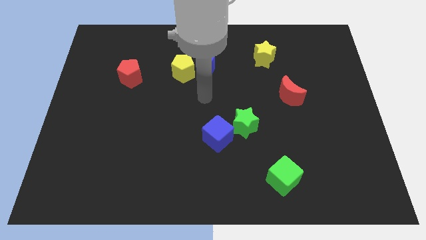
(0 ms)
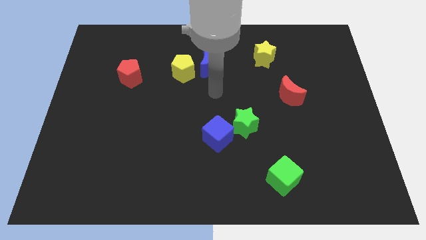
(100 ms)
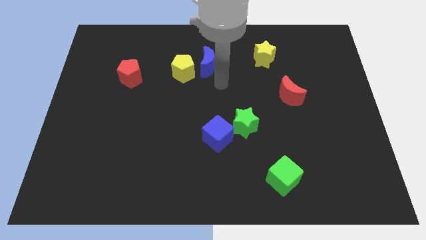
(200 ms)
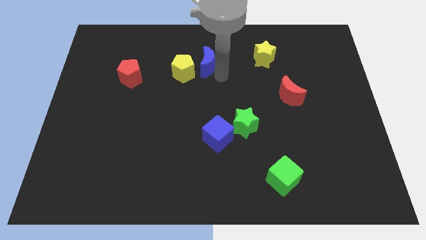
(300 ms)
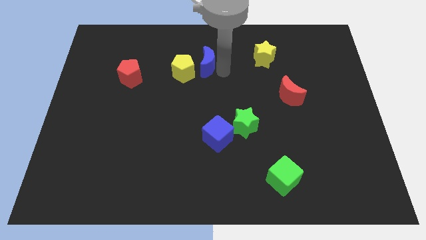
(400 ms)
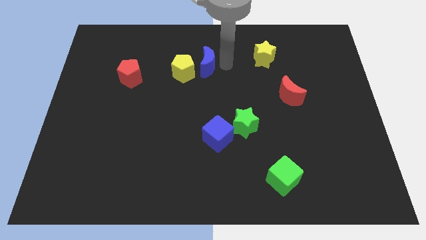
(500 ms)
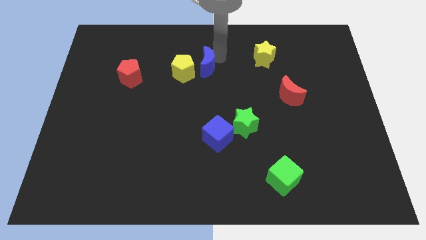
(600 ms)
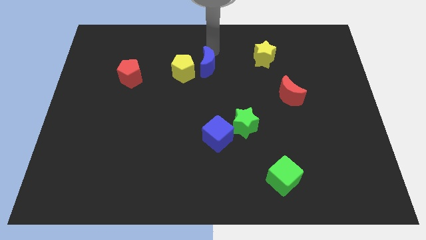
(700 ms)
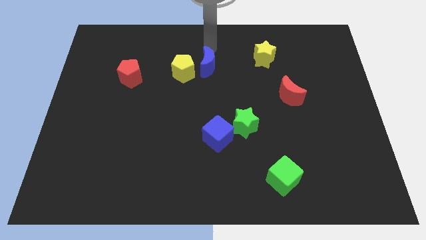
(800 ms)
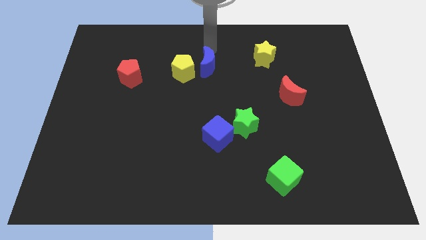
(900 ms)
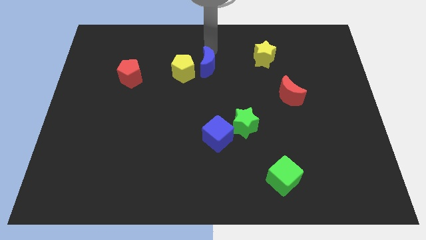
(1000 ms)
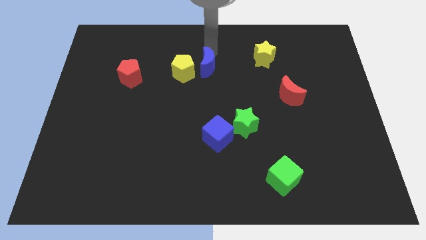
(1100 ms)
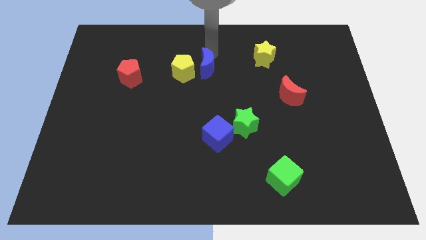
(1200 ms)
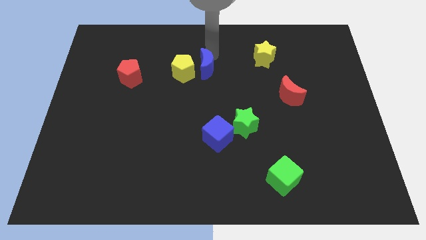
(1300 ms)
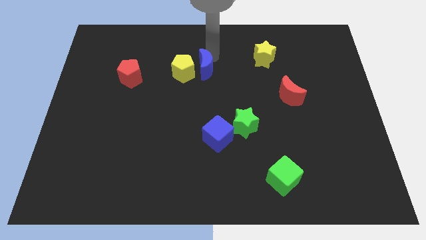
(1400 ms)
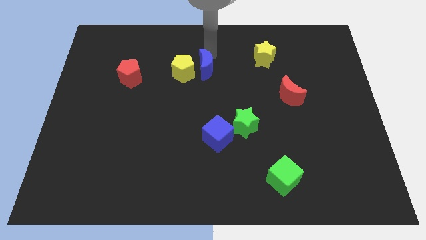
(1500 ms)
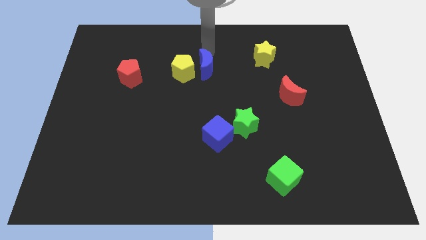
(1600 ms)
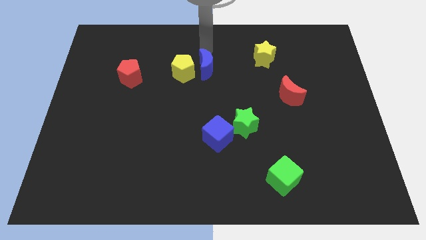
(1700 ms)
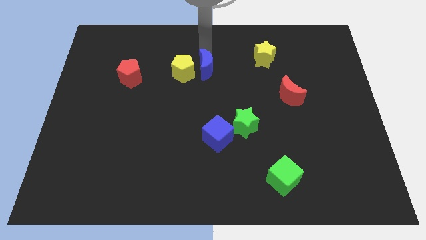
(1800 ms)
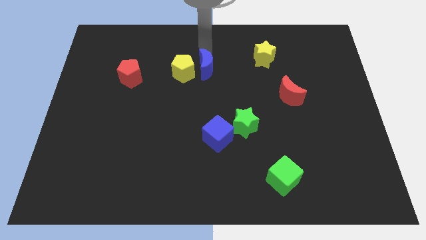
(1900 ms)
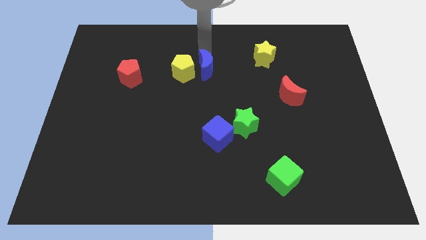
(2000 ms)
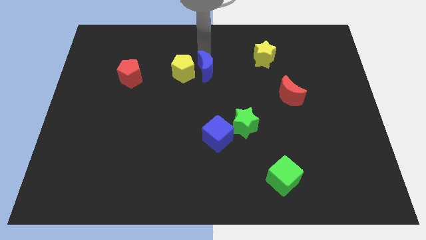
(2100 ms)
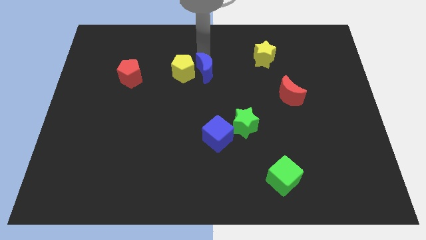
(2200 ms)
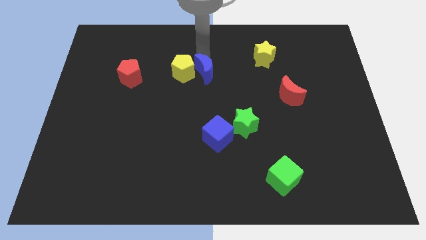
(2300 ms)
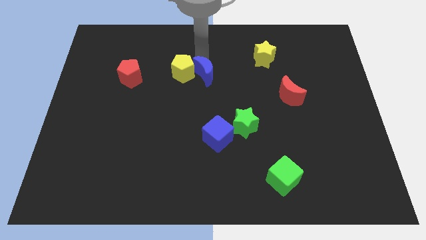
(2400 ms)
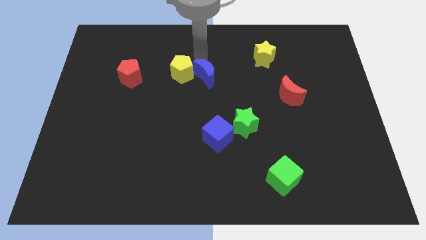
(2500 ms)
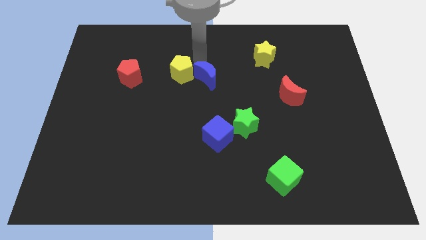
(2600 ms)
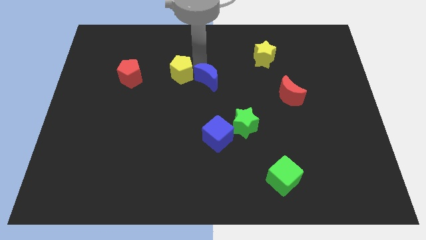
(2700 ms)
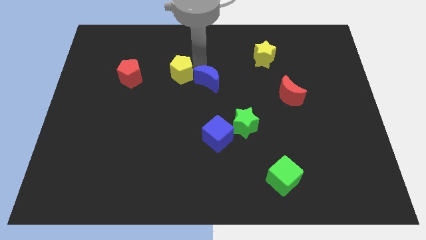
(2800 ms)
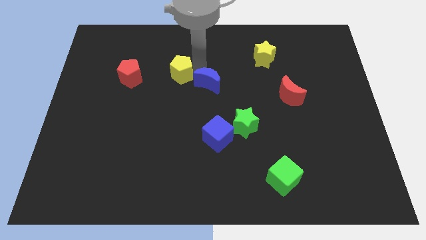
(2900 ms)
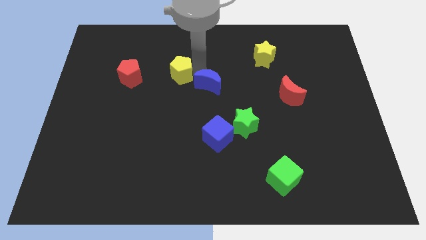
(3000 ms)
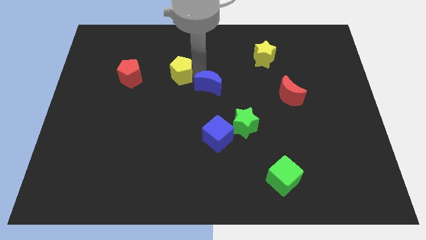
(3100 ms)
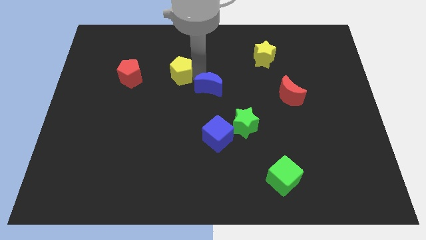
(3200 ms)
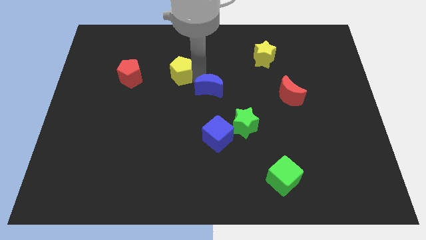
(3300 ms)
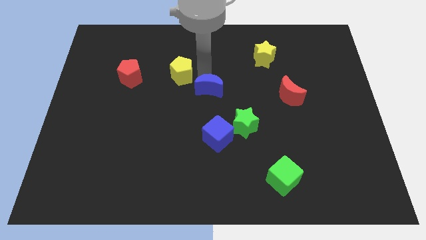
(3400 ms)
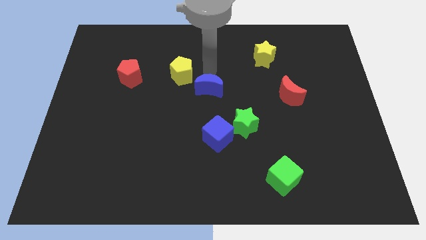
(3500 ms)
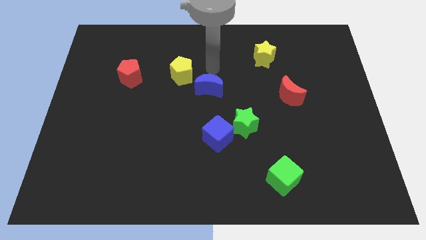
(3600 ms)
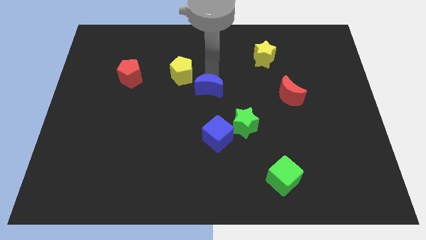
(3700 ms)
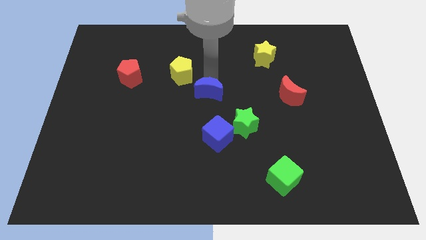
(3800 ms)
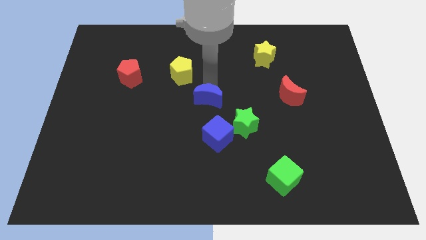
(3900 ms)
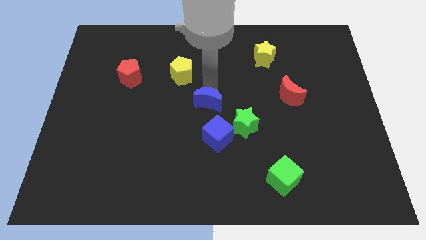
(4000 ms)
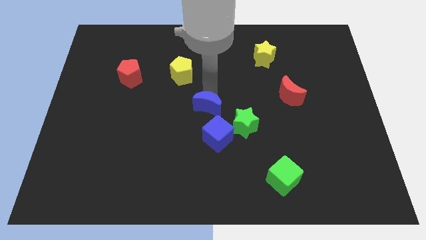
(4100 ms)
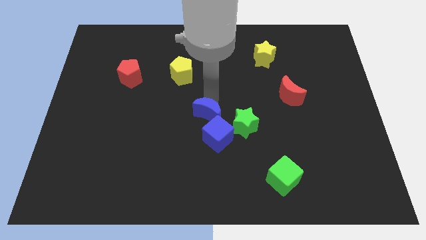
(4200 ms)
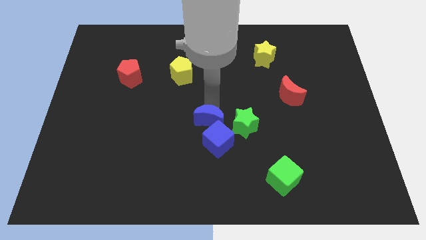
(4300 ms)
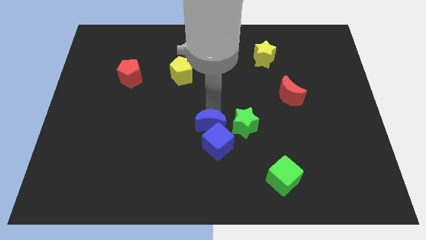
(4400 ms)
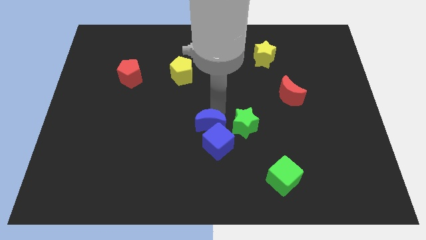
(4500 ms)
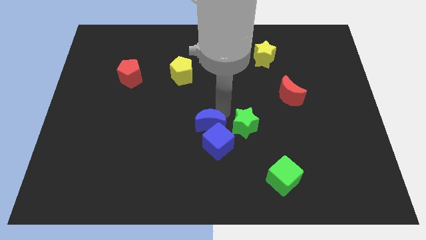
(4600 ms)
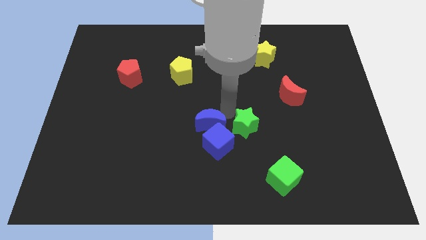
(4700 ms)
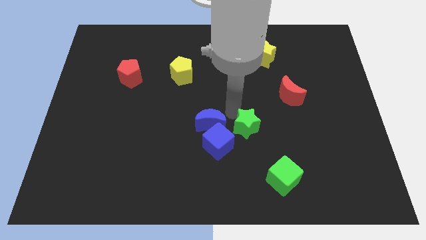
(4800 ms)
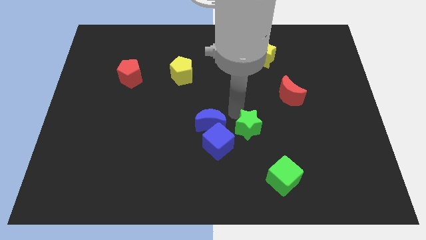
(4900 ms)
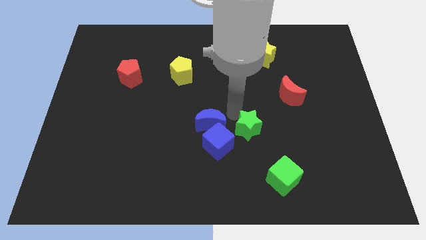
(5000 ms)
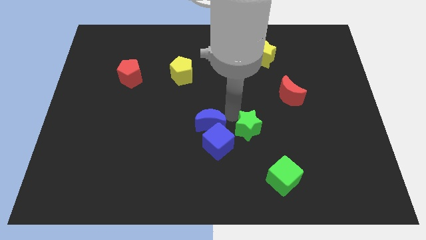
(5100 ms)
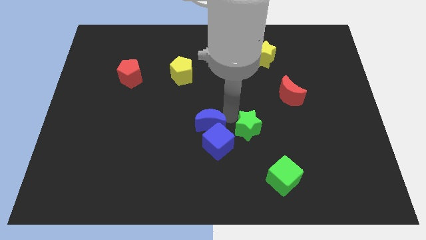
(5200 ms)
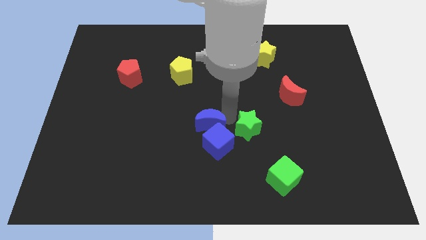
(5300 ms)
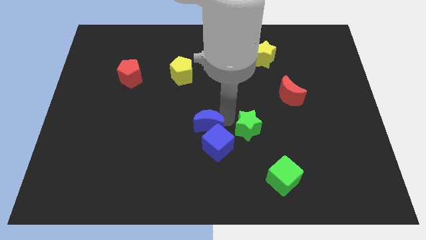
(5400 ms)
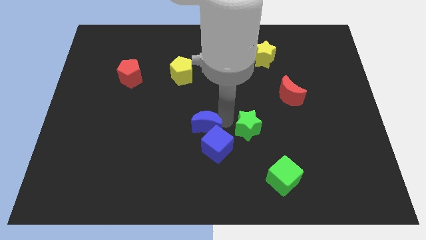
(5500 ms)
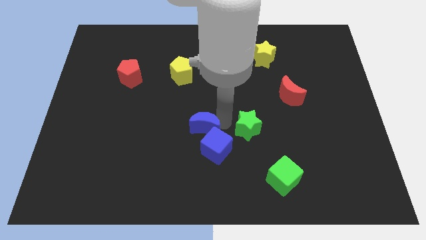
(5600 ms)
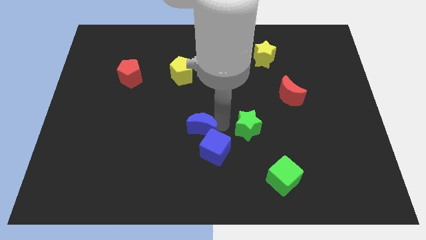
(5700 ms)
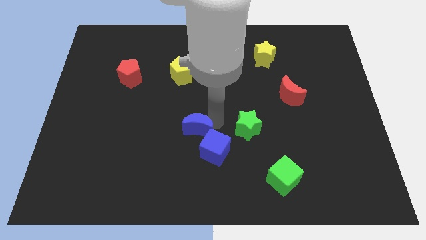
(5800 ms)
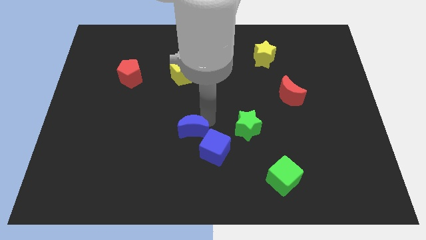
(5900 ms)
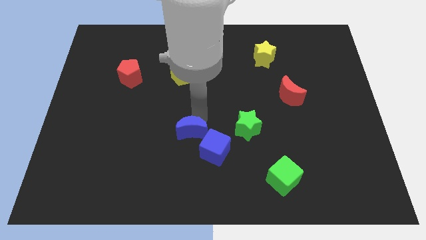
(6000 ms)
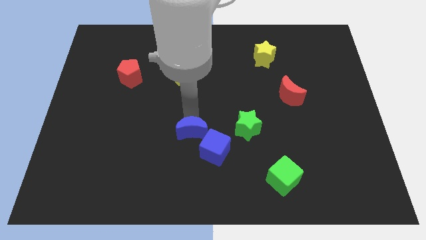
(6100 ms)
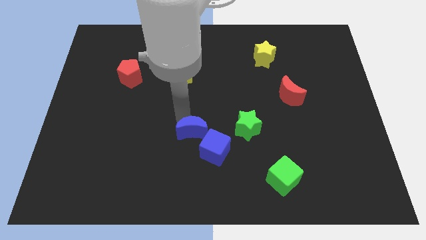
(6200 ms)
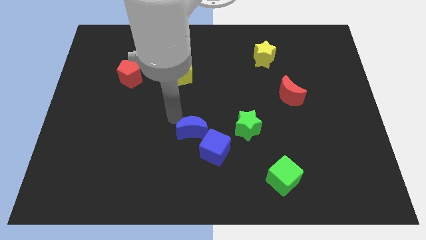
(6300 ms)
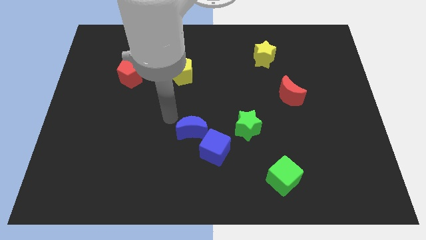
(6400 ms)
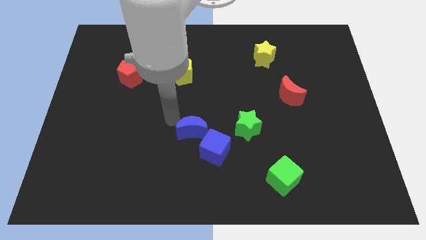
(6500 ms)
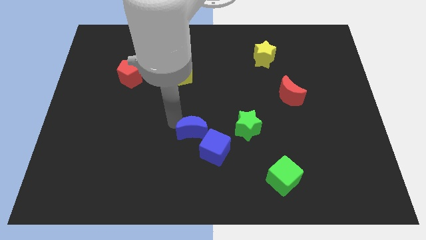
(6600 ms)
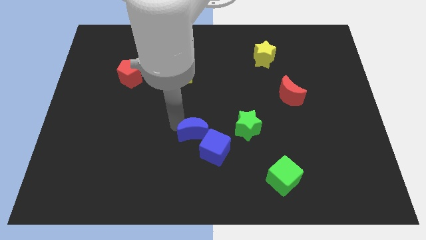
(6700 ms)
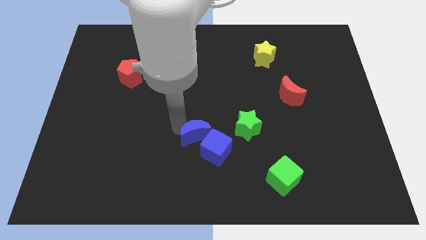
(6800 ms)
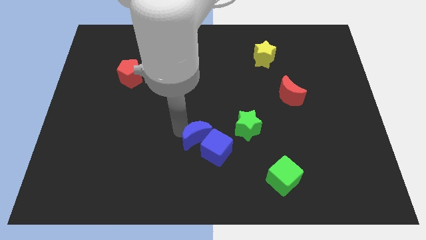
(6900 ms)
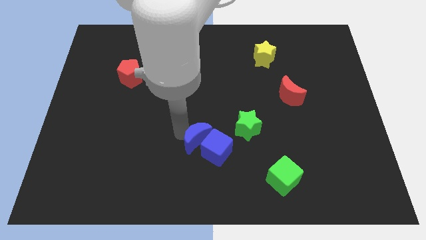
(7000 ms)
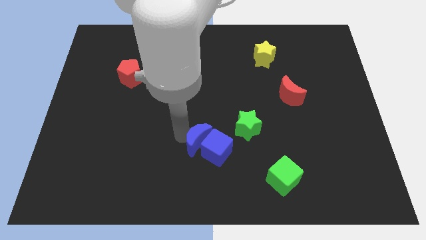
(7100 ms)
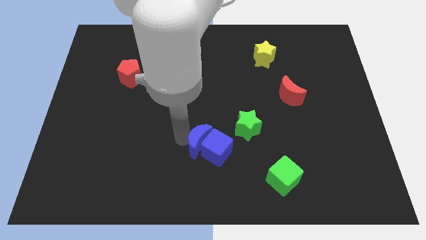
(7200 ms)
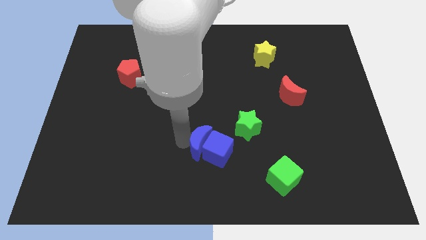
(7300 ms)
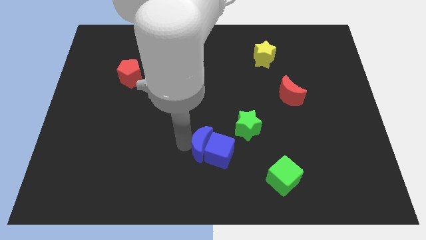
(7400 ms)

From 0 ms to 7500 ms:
slide the blue moon to the bottom left of the green star
